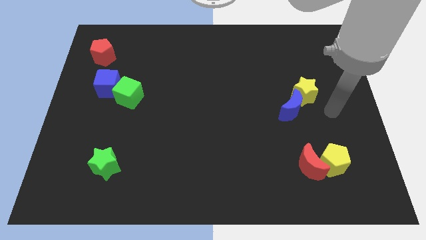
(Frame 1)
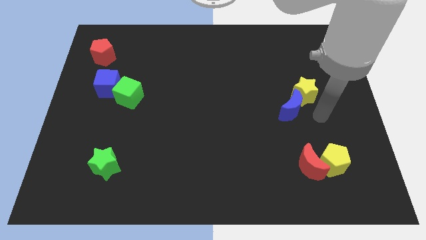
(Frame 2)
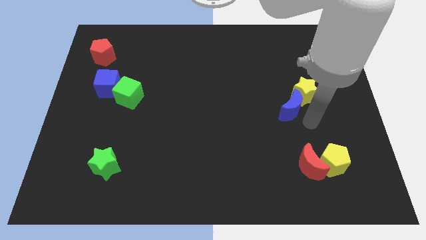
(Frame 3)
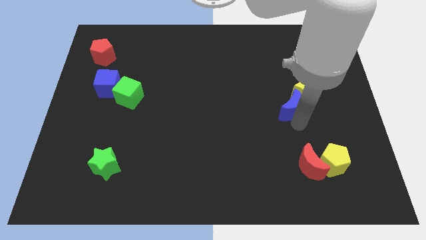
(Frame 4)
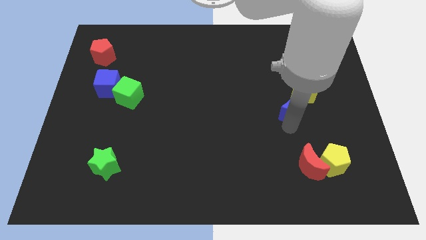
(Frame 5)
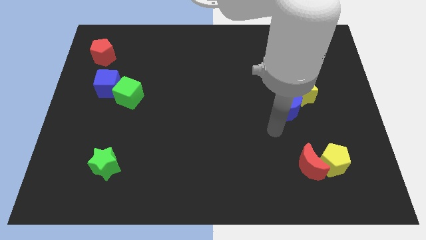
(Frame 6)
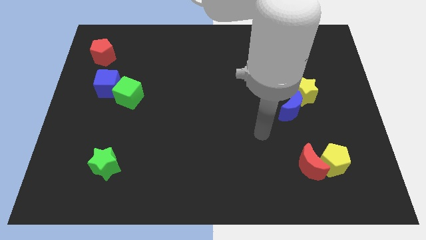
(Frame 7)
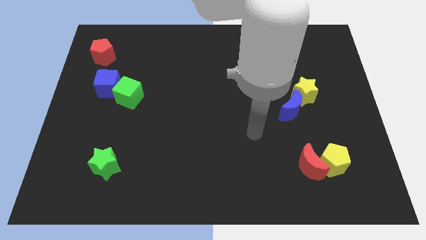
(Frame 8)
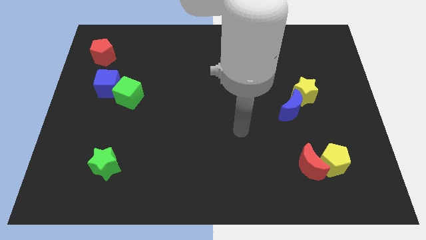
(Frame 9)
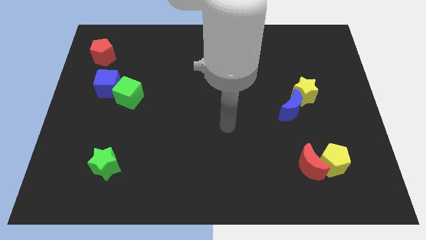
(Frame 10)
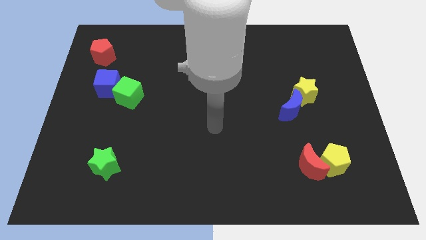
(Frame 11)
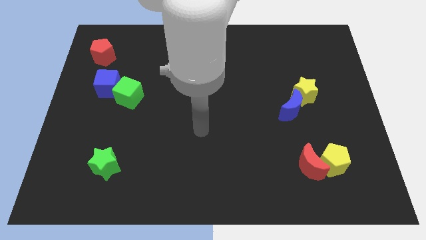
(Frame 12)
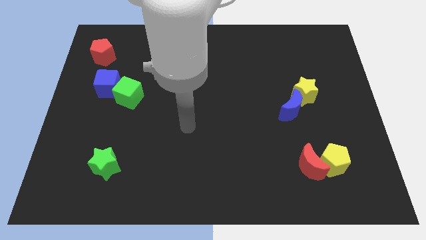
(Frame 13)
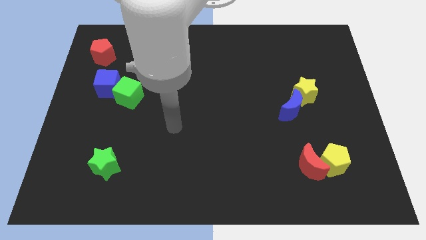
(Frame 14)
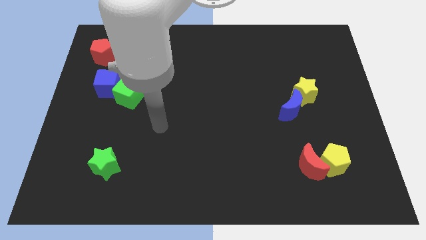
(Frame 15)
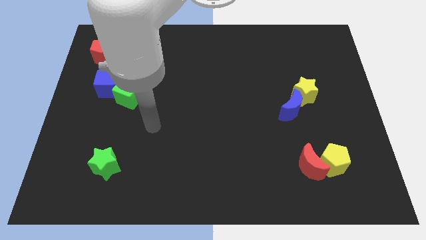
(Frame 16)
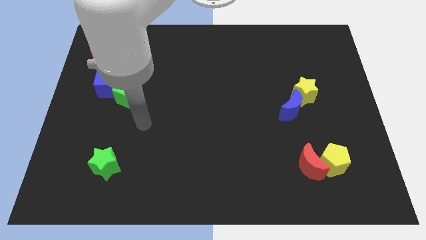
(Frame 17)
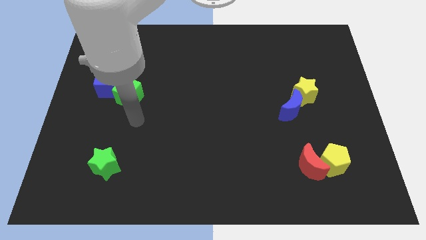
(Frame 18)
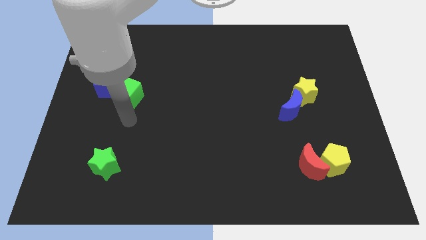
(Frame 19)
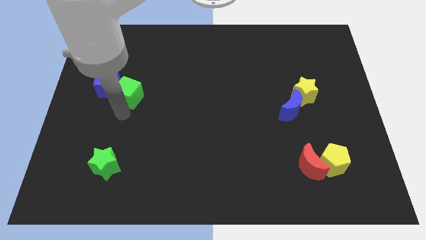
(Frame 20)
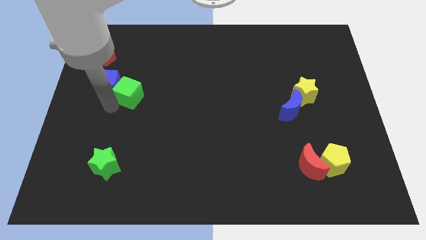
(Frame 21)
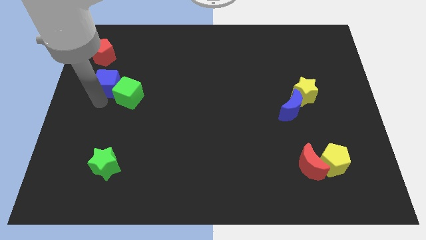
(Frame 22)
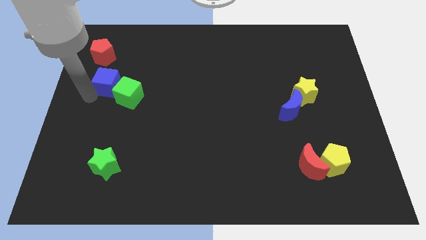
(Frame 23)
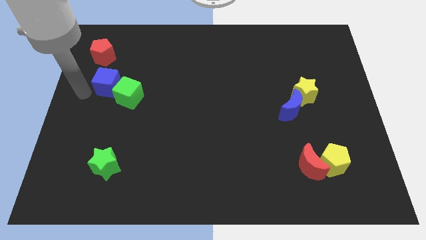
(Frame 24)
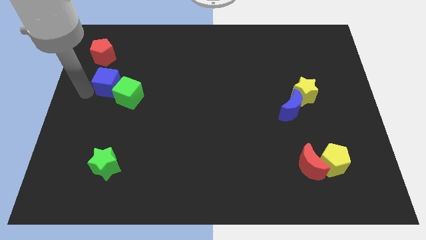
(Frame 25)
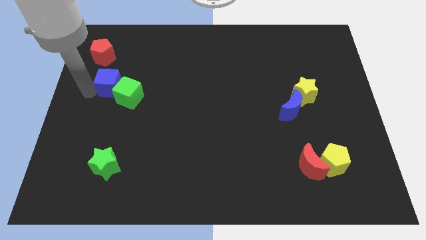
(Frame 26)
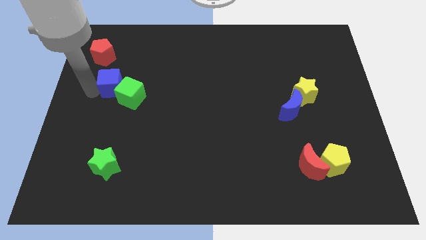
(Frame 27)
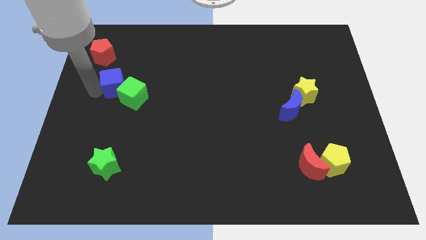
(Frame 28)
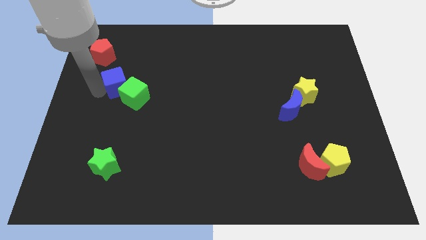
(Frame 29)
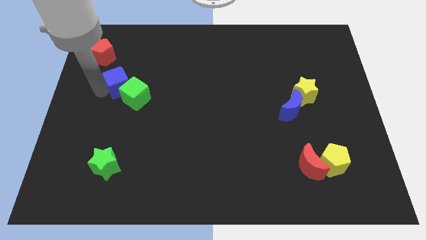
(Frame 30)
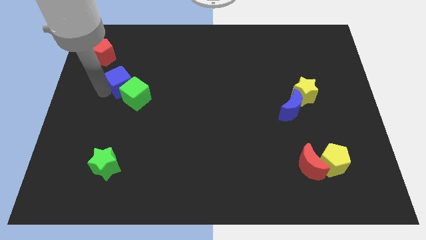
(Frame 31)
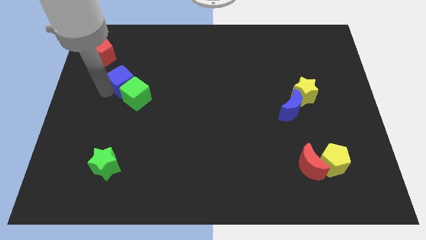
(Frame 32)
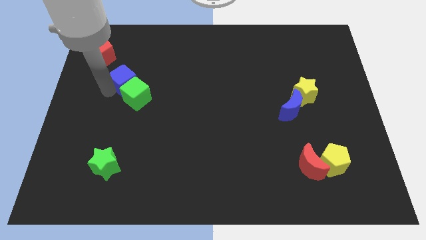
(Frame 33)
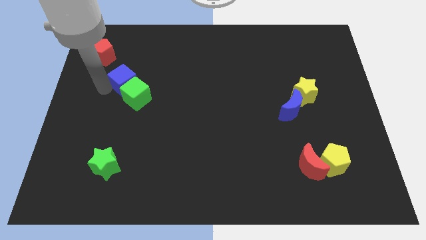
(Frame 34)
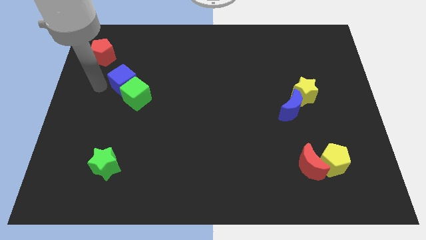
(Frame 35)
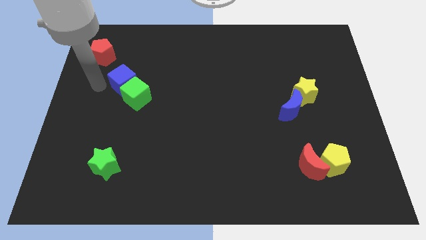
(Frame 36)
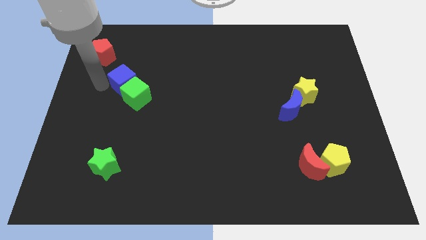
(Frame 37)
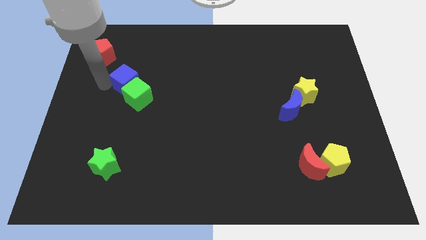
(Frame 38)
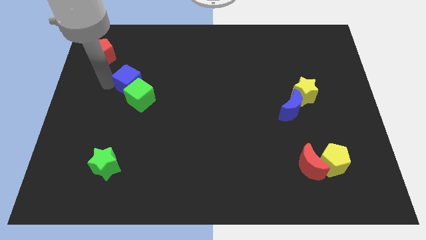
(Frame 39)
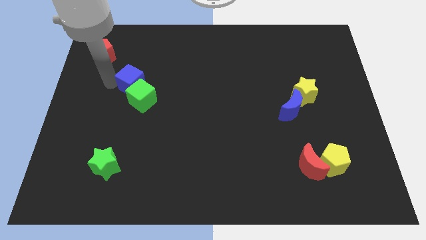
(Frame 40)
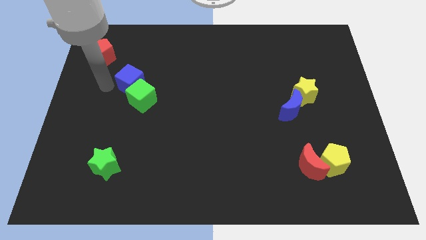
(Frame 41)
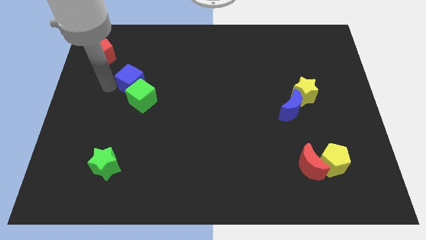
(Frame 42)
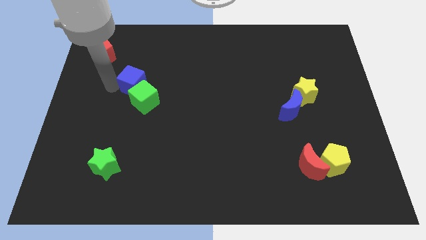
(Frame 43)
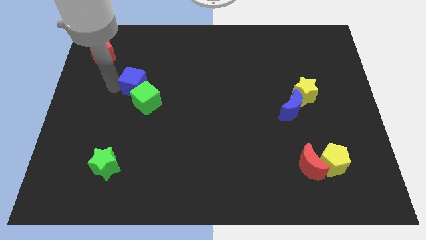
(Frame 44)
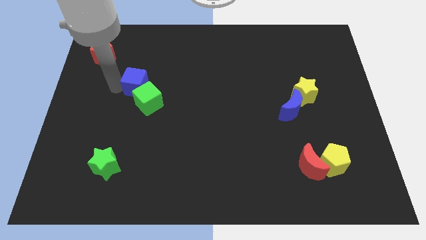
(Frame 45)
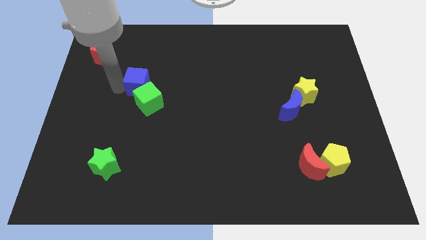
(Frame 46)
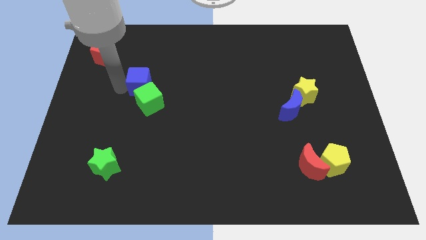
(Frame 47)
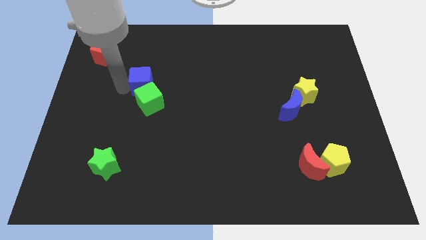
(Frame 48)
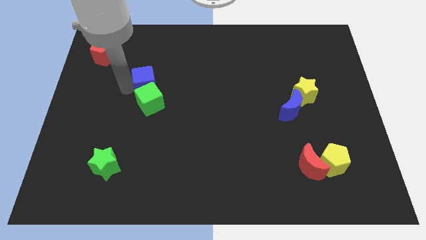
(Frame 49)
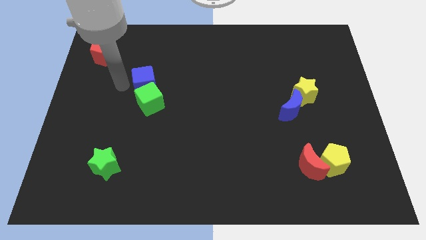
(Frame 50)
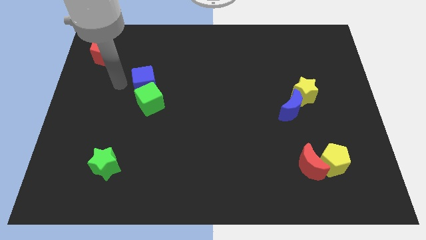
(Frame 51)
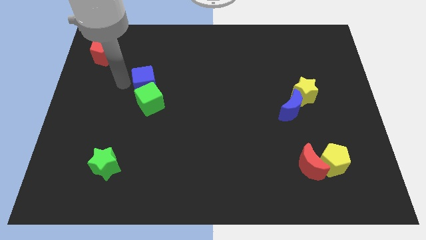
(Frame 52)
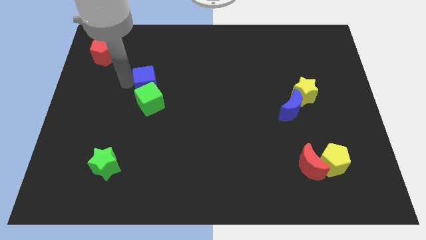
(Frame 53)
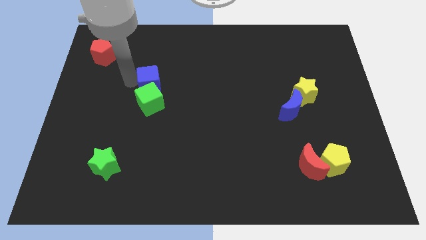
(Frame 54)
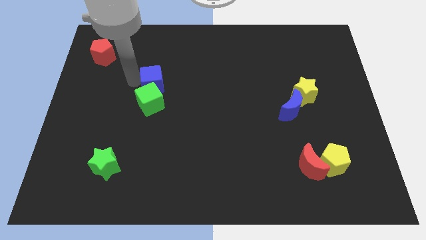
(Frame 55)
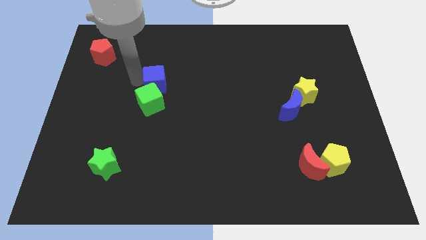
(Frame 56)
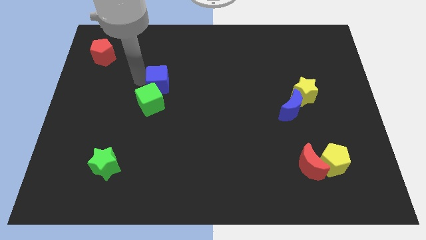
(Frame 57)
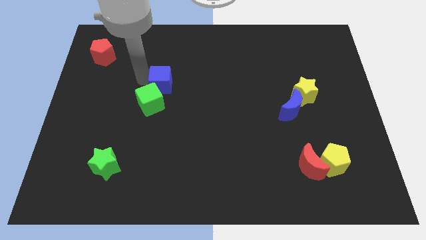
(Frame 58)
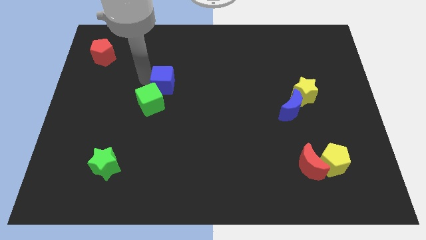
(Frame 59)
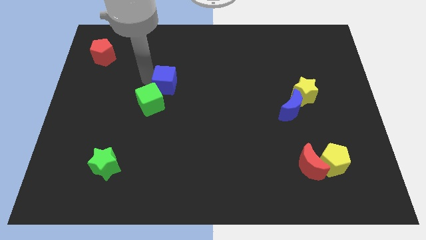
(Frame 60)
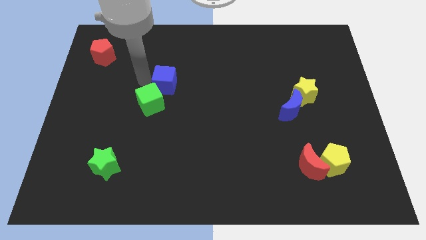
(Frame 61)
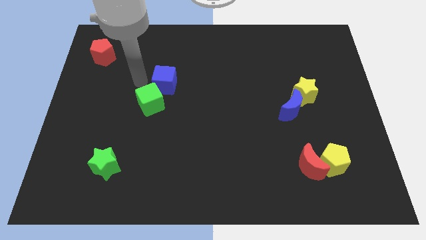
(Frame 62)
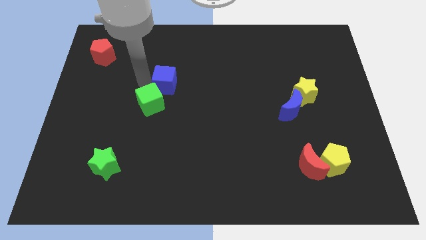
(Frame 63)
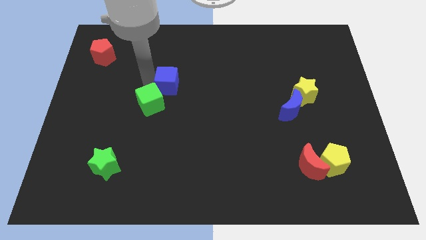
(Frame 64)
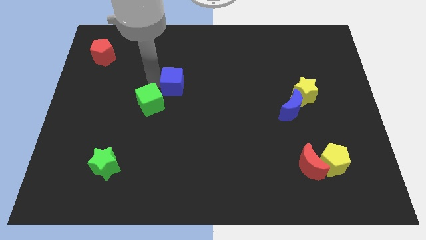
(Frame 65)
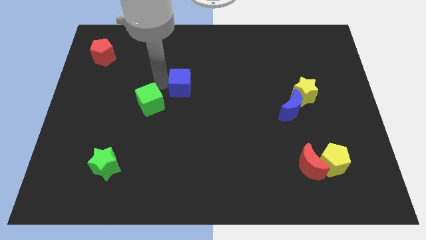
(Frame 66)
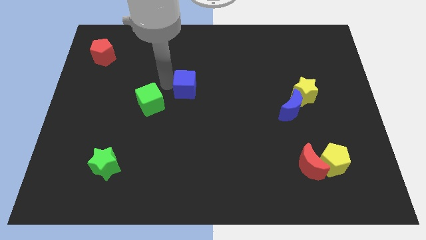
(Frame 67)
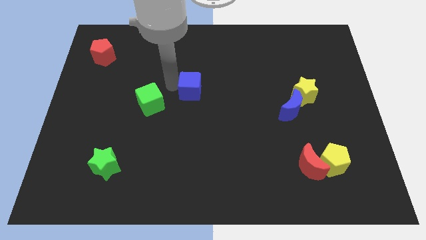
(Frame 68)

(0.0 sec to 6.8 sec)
slide the blue cube right

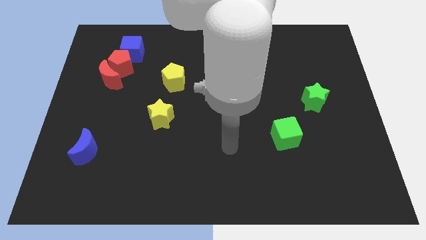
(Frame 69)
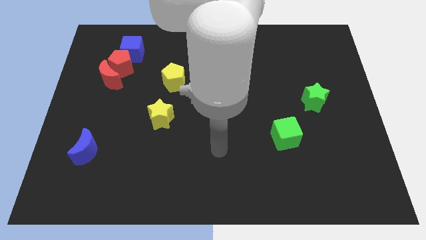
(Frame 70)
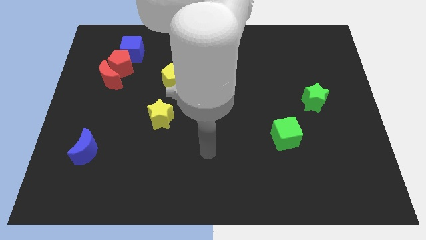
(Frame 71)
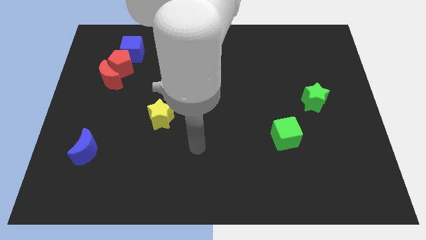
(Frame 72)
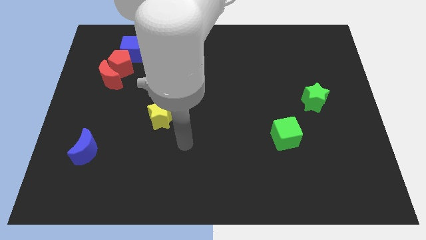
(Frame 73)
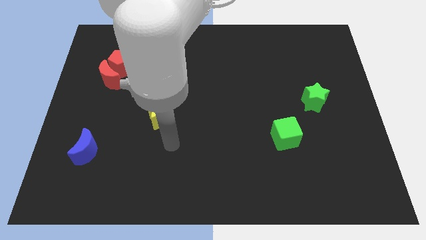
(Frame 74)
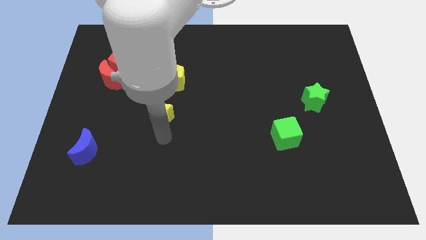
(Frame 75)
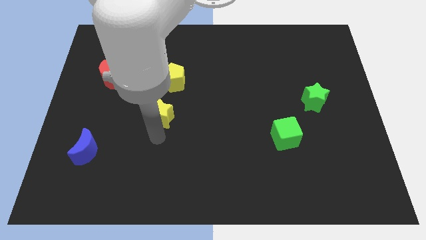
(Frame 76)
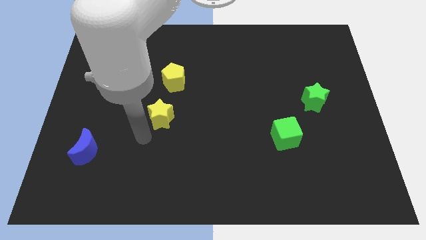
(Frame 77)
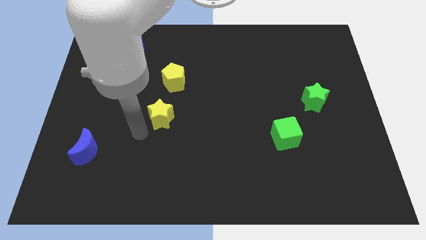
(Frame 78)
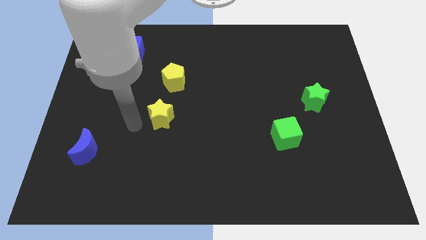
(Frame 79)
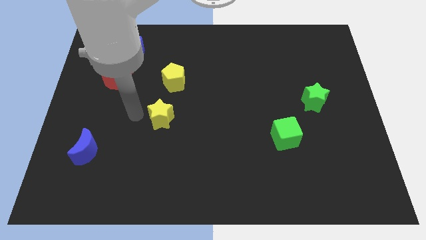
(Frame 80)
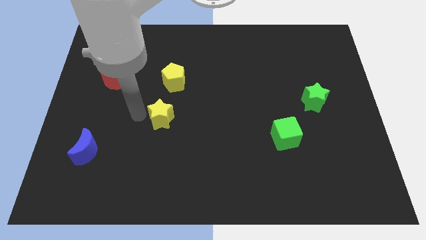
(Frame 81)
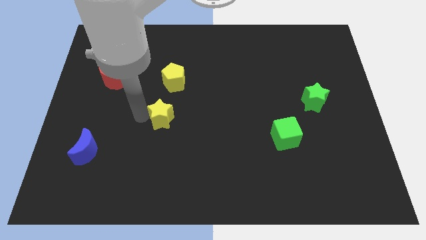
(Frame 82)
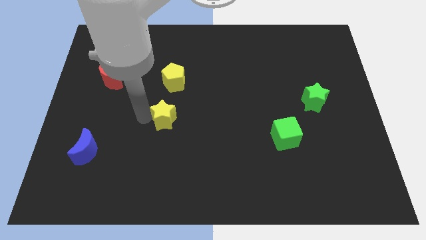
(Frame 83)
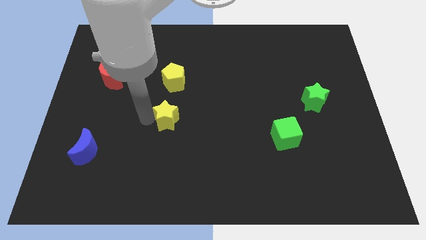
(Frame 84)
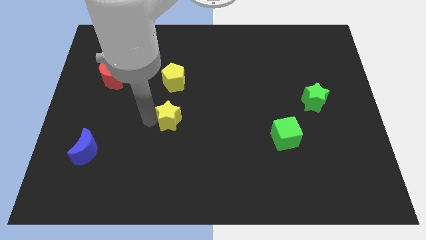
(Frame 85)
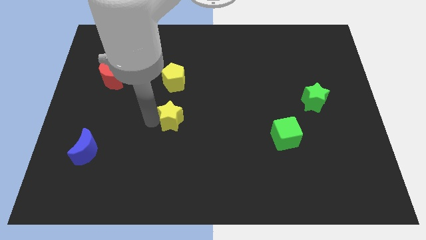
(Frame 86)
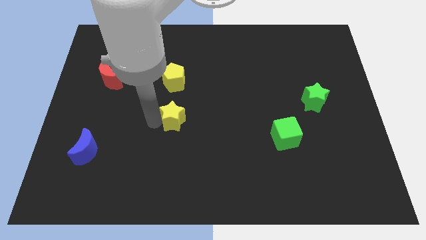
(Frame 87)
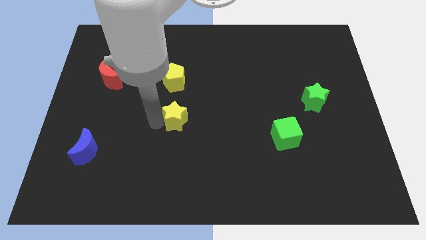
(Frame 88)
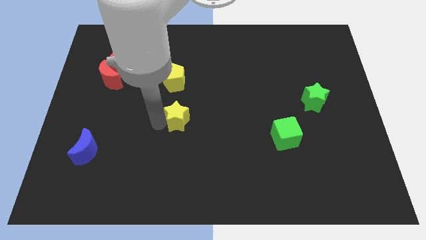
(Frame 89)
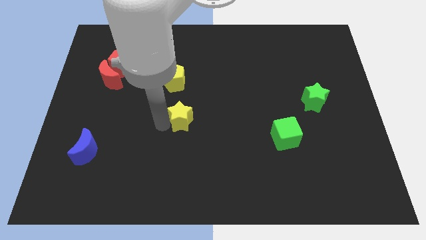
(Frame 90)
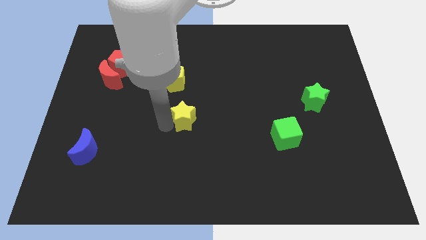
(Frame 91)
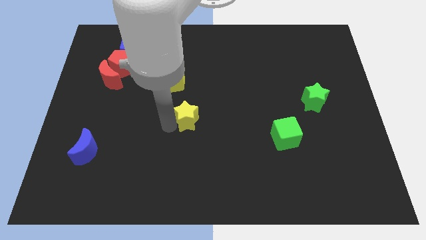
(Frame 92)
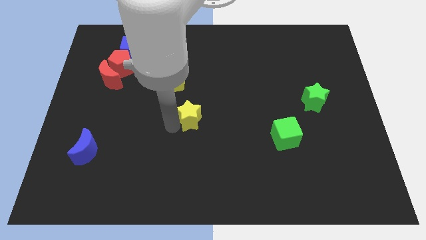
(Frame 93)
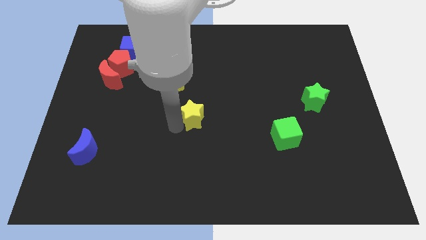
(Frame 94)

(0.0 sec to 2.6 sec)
slightly push the yellow star right
